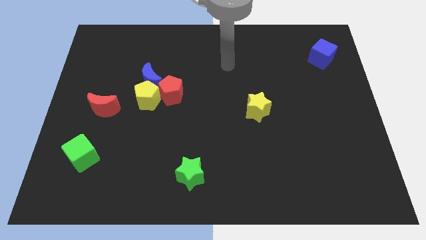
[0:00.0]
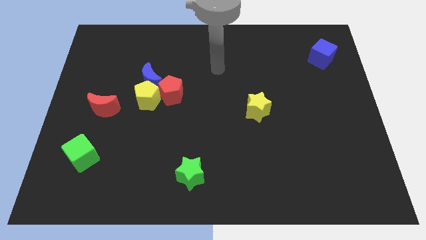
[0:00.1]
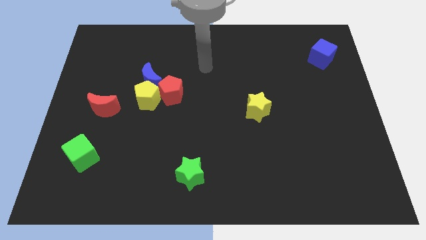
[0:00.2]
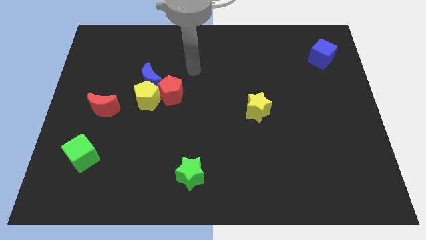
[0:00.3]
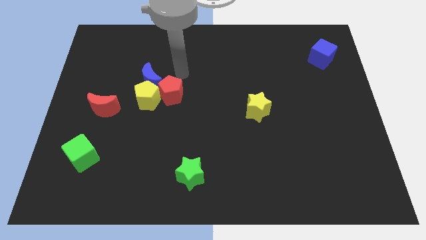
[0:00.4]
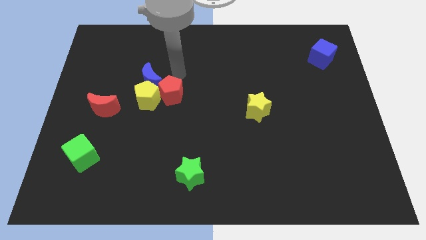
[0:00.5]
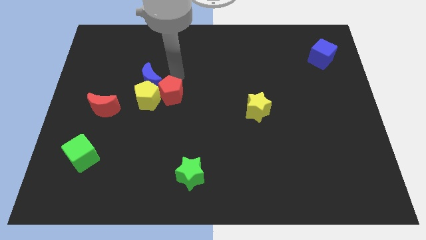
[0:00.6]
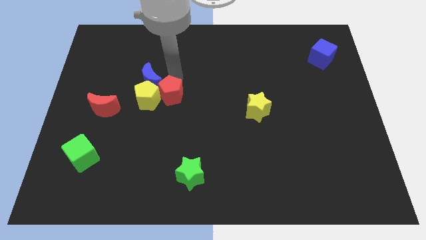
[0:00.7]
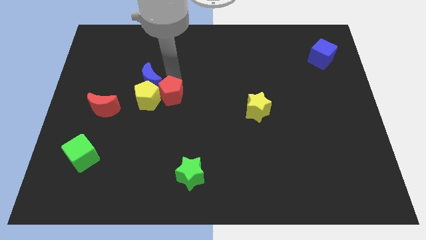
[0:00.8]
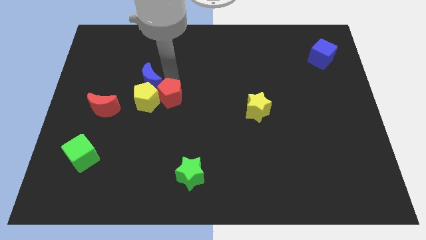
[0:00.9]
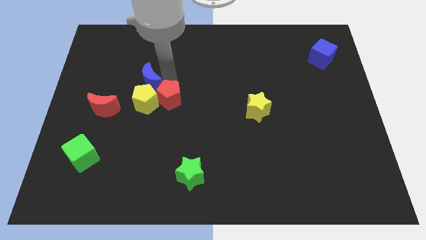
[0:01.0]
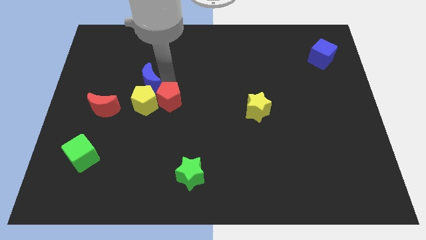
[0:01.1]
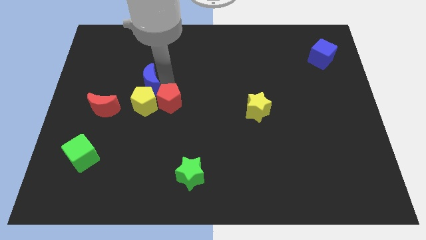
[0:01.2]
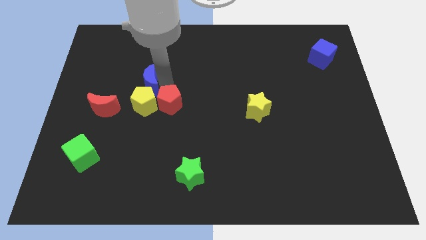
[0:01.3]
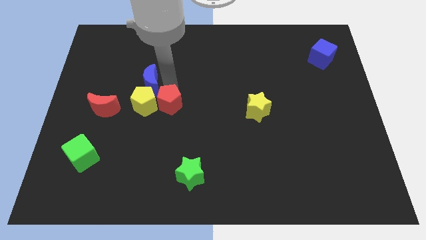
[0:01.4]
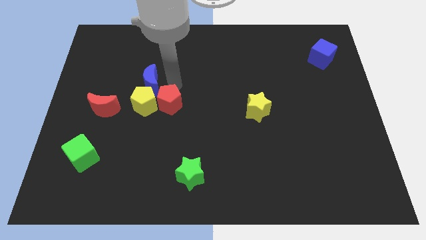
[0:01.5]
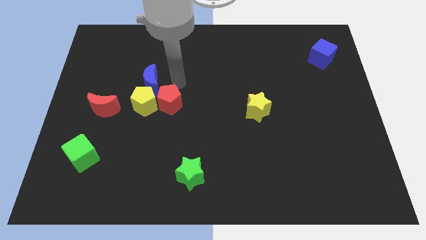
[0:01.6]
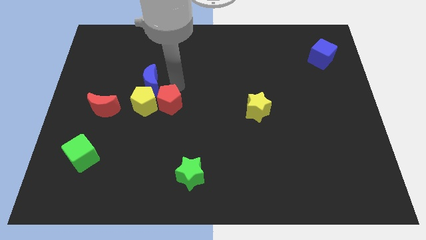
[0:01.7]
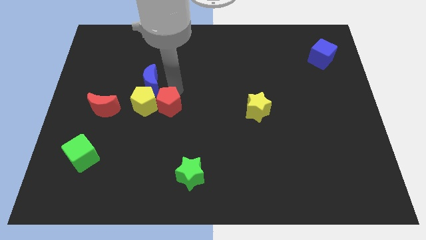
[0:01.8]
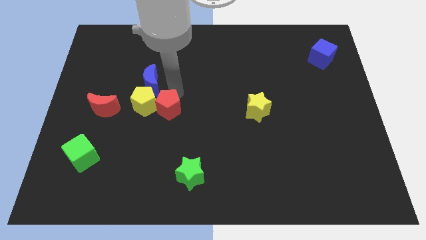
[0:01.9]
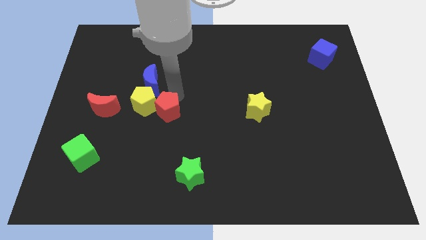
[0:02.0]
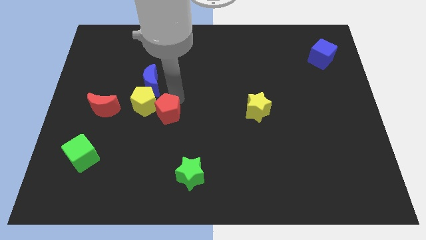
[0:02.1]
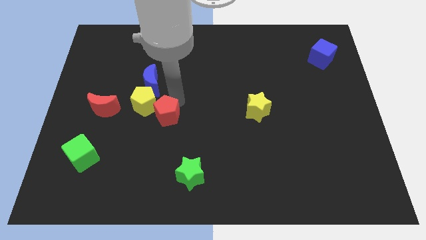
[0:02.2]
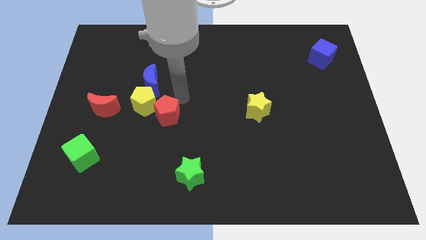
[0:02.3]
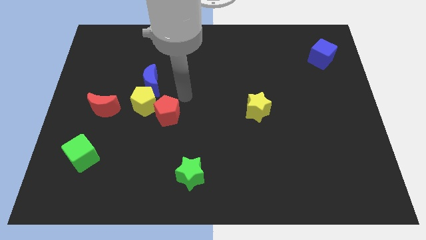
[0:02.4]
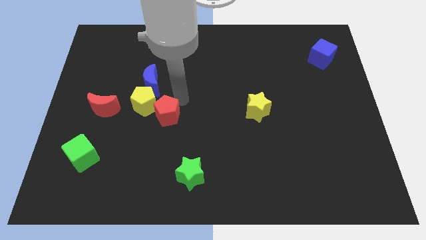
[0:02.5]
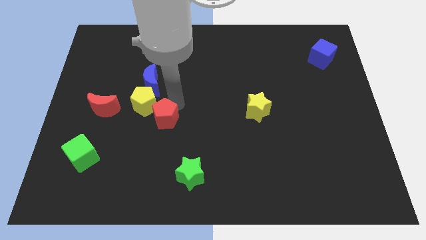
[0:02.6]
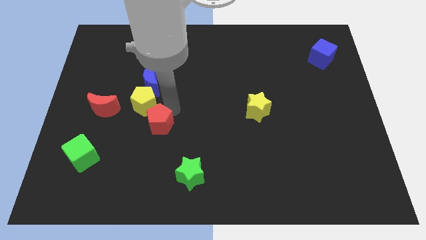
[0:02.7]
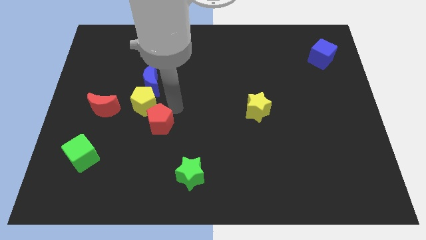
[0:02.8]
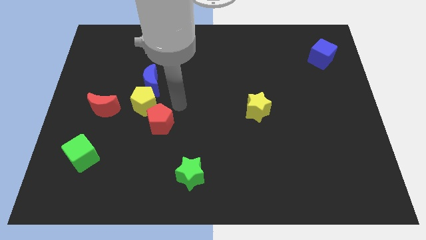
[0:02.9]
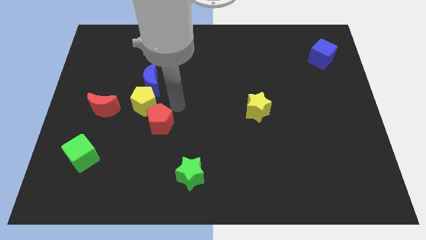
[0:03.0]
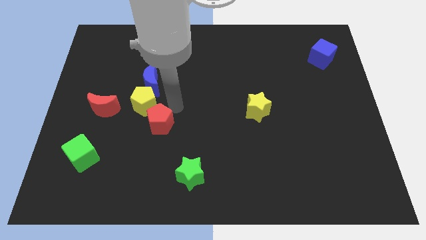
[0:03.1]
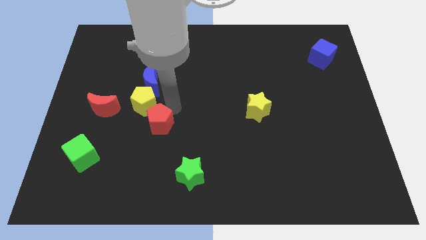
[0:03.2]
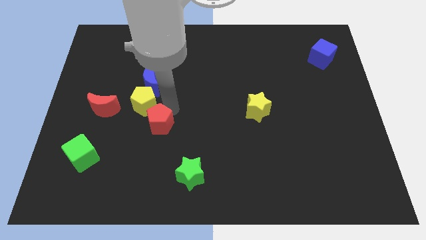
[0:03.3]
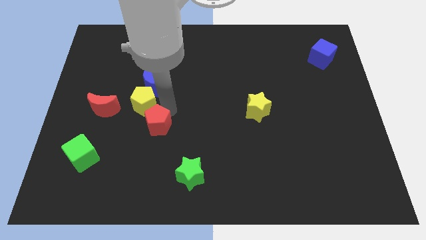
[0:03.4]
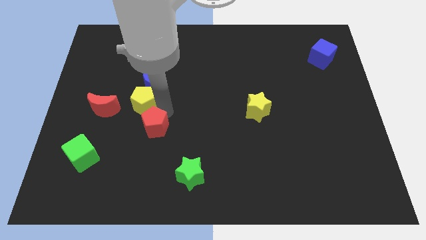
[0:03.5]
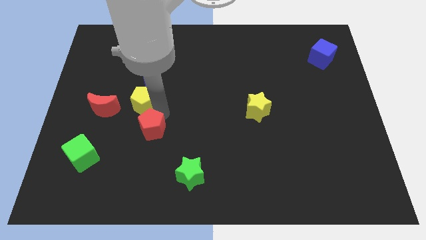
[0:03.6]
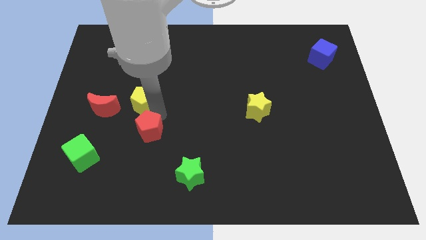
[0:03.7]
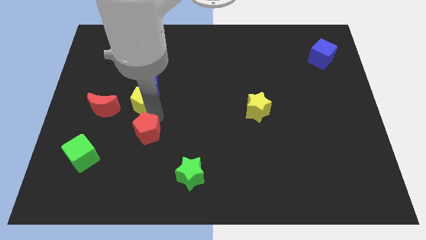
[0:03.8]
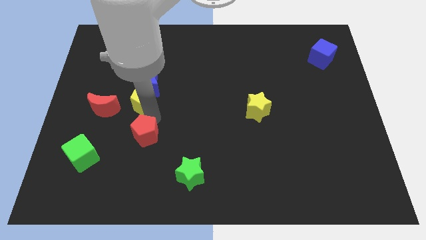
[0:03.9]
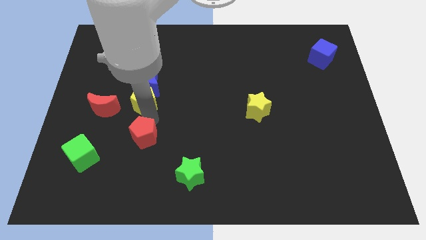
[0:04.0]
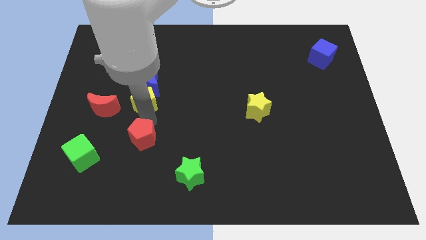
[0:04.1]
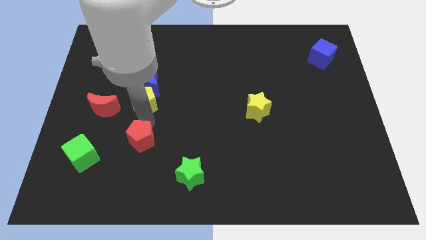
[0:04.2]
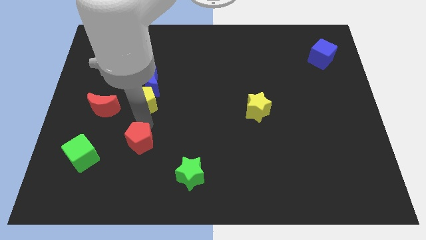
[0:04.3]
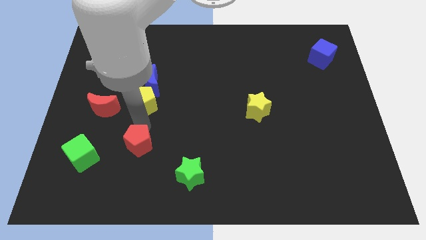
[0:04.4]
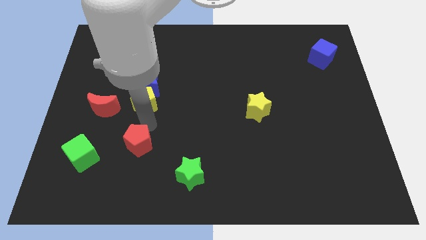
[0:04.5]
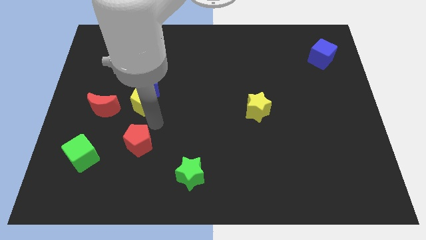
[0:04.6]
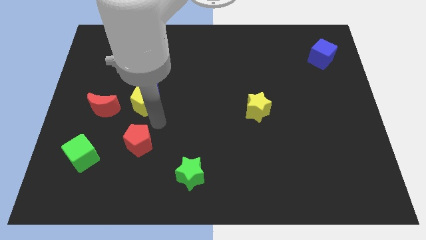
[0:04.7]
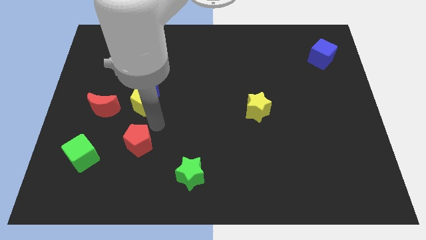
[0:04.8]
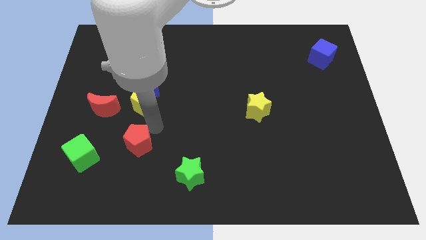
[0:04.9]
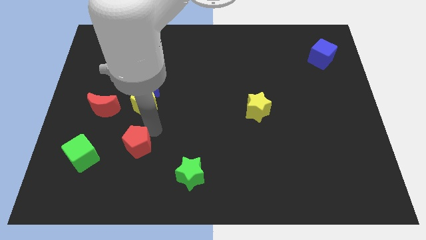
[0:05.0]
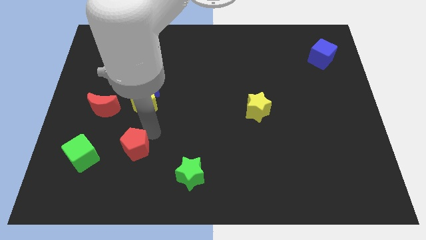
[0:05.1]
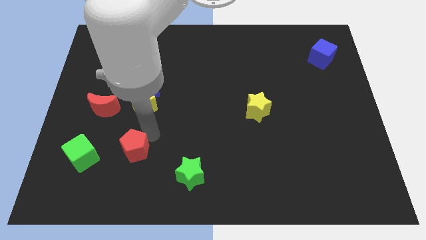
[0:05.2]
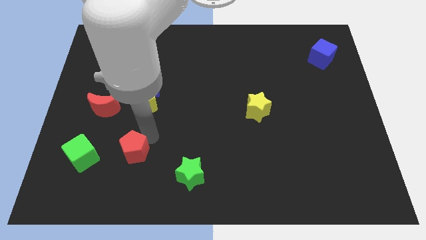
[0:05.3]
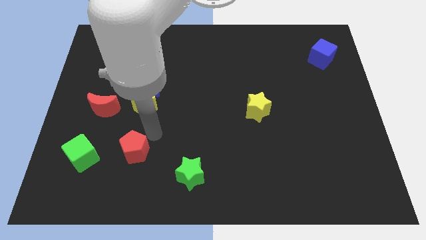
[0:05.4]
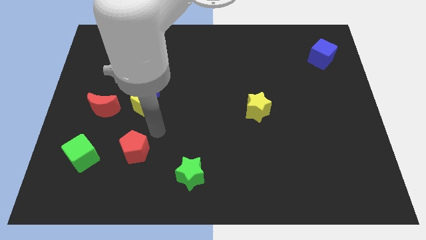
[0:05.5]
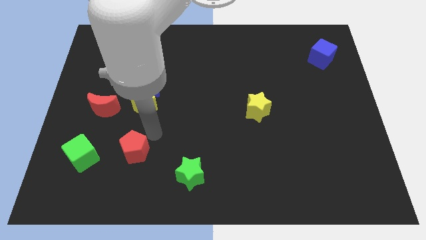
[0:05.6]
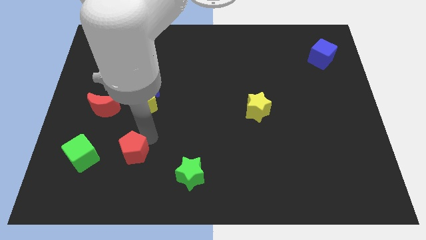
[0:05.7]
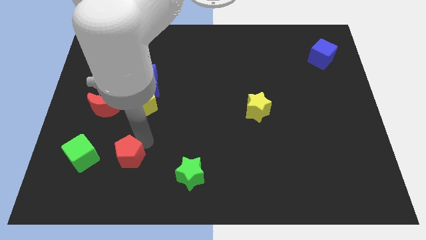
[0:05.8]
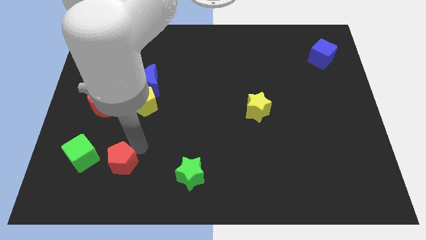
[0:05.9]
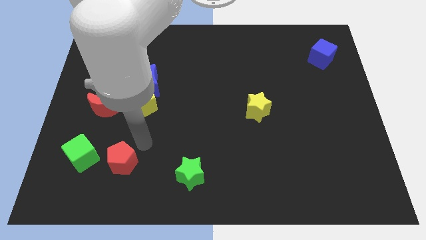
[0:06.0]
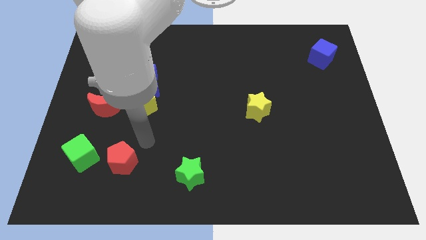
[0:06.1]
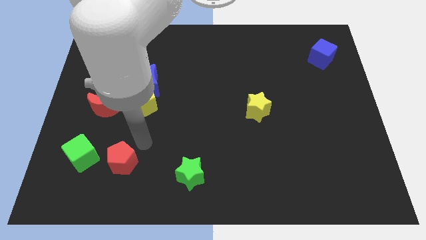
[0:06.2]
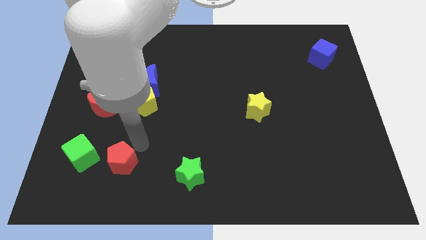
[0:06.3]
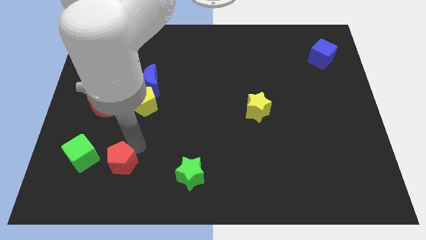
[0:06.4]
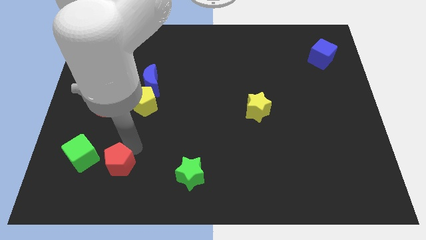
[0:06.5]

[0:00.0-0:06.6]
move the red pentagon to the bottom right of the green cube

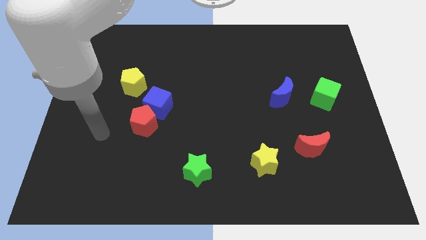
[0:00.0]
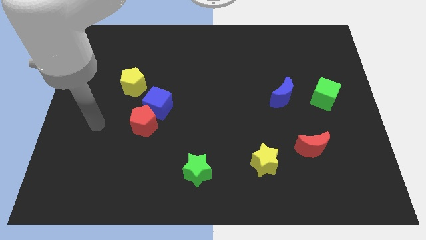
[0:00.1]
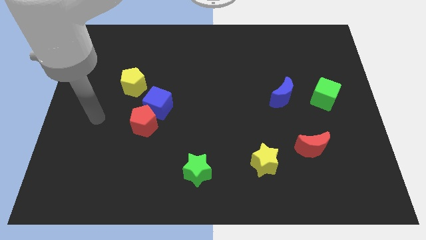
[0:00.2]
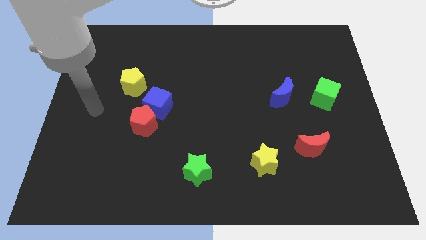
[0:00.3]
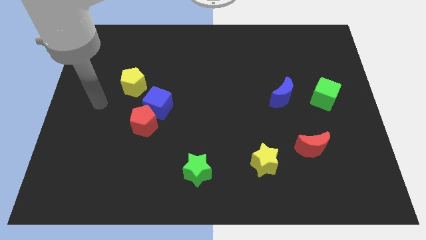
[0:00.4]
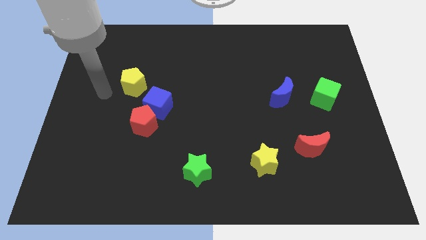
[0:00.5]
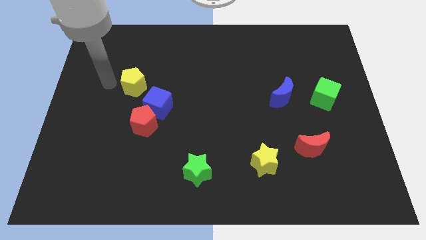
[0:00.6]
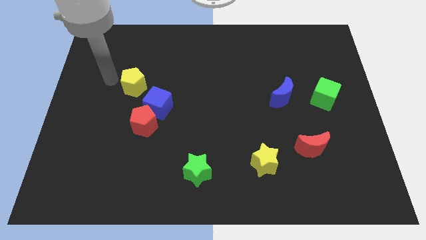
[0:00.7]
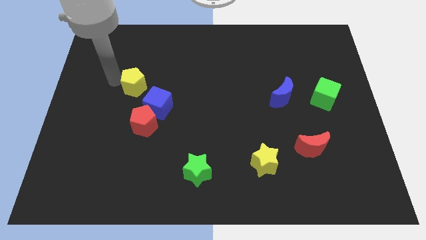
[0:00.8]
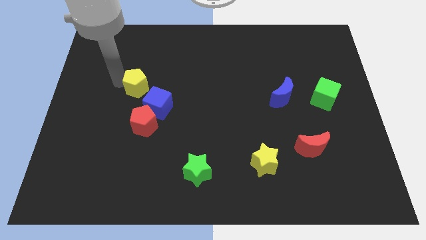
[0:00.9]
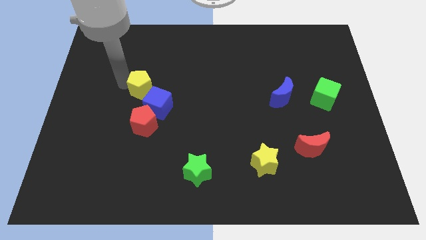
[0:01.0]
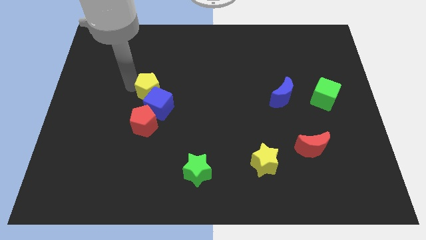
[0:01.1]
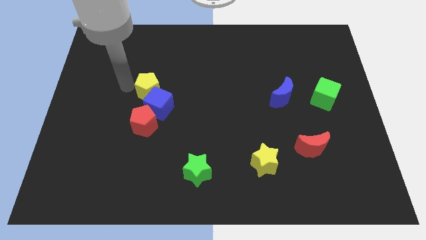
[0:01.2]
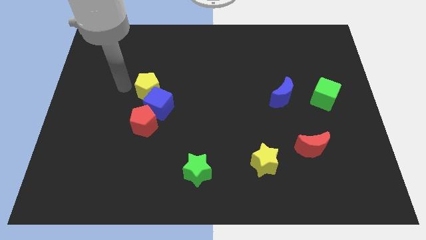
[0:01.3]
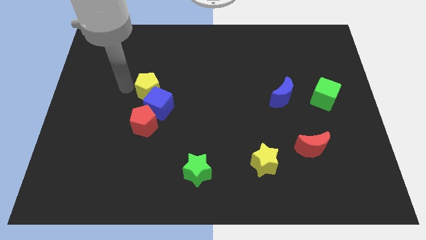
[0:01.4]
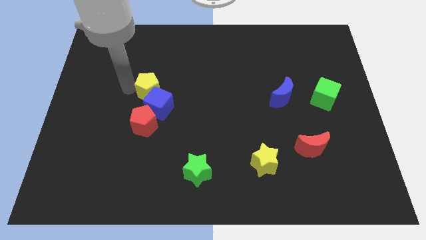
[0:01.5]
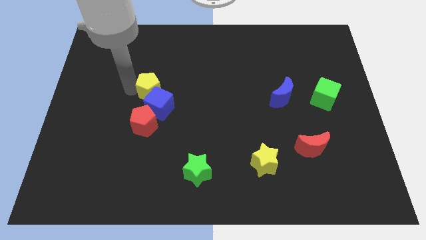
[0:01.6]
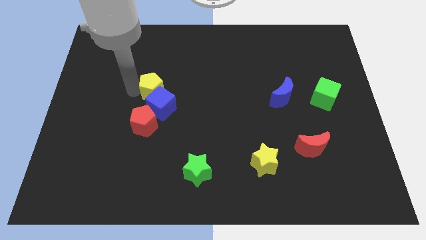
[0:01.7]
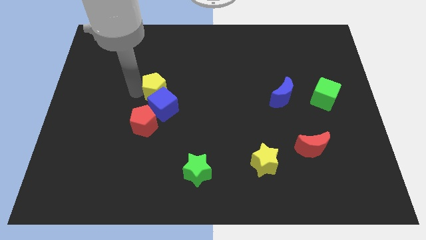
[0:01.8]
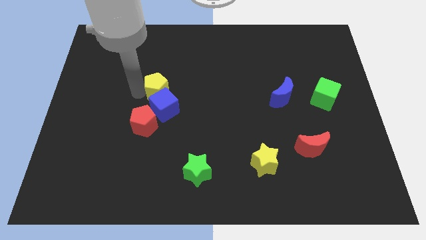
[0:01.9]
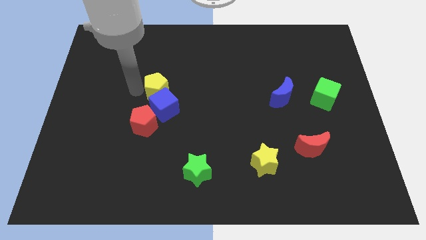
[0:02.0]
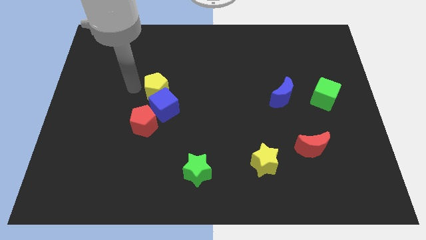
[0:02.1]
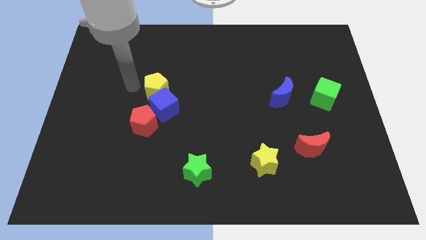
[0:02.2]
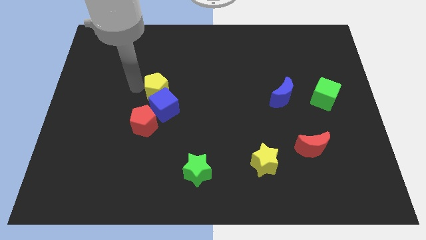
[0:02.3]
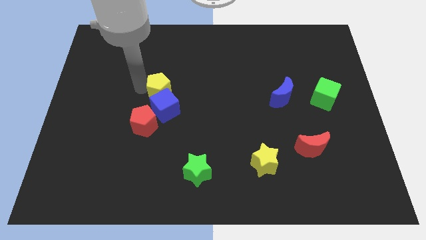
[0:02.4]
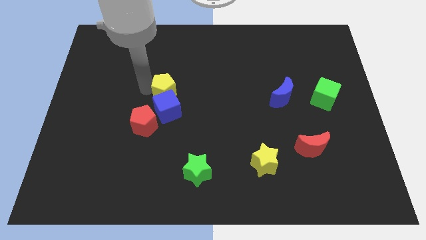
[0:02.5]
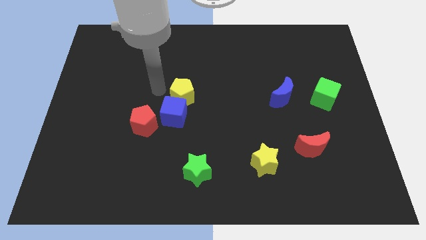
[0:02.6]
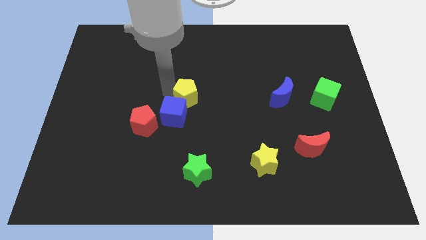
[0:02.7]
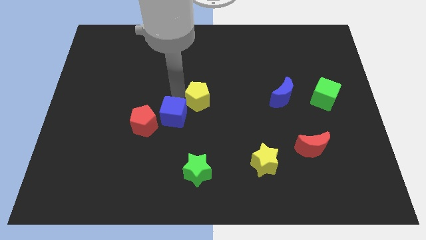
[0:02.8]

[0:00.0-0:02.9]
move the yellow pentagon just right of the blue cube
